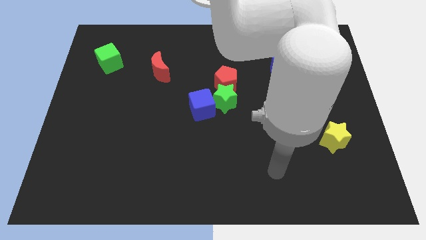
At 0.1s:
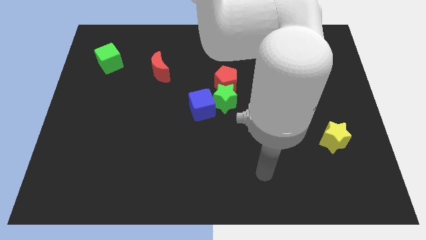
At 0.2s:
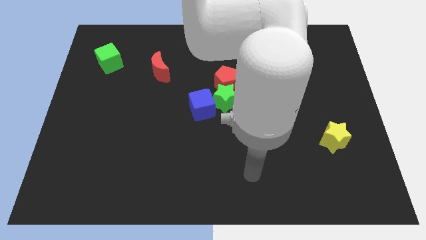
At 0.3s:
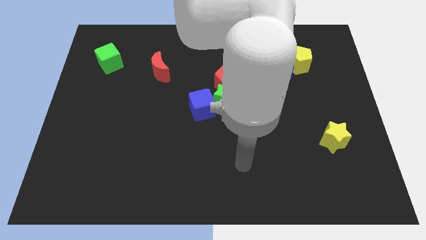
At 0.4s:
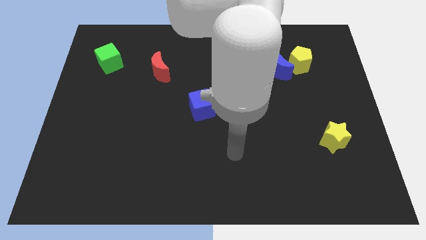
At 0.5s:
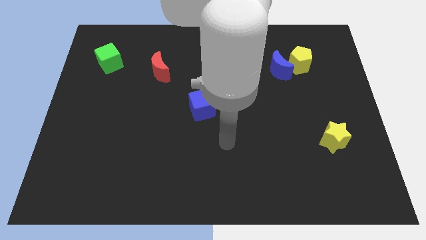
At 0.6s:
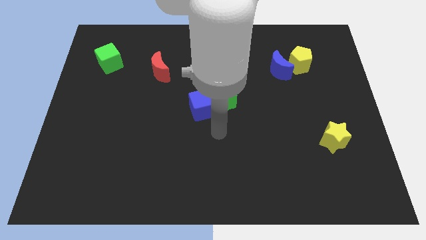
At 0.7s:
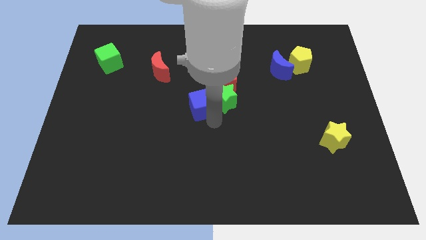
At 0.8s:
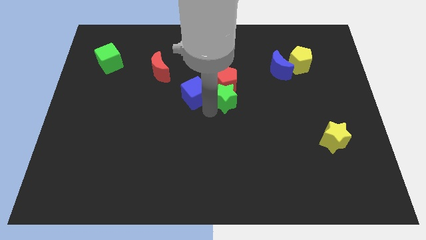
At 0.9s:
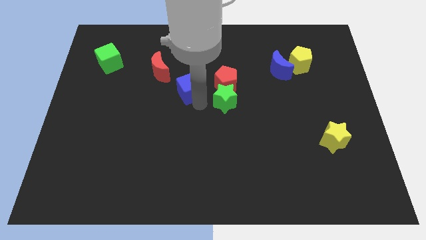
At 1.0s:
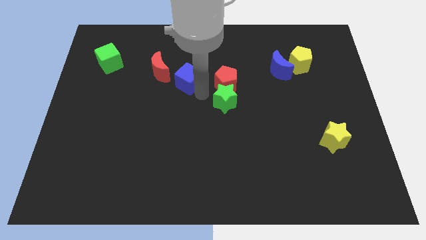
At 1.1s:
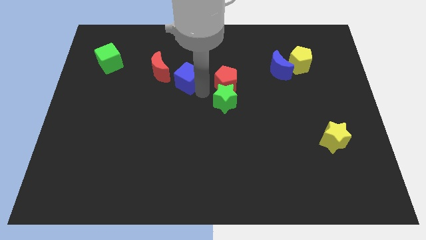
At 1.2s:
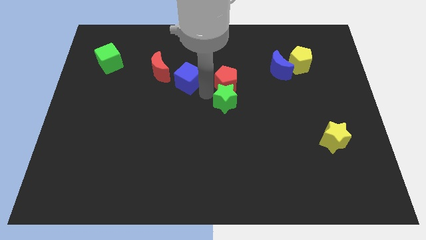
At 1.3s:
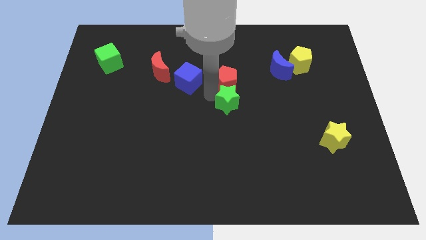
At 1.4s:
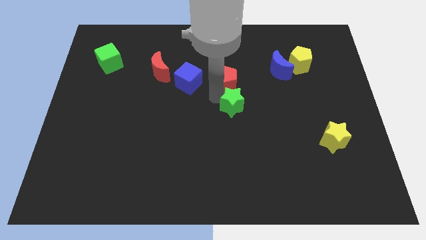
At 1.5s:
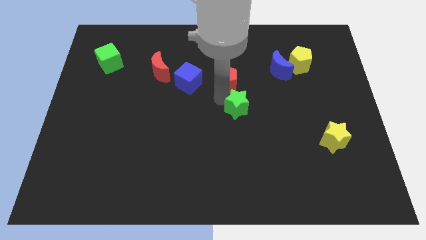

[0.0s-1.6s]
move the green star away from the red pentagon and blue cube

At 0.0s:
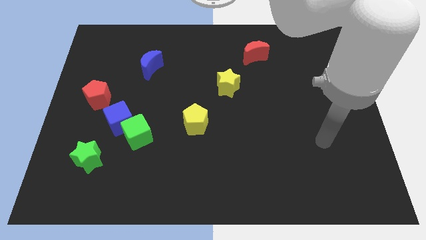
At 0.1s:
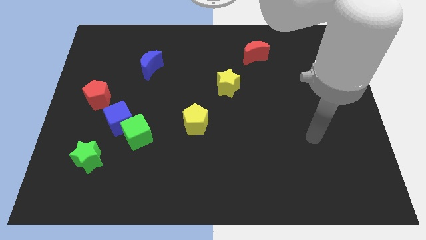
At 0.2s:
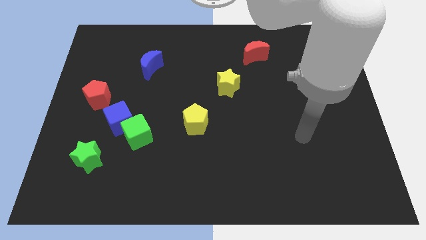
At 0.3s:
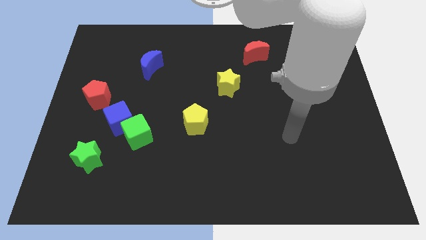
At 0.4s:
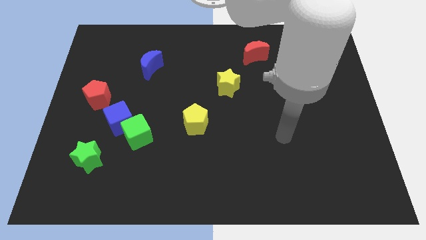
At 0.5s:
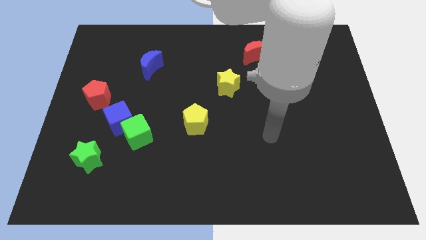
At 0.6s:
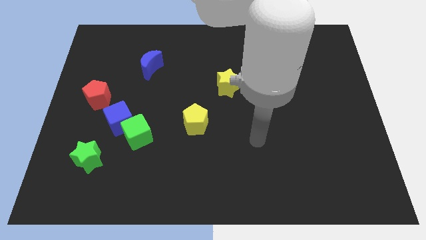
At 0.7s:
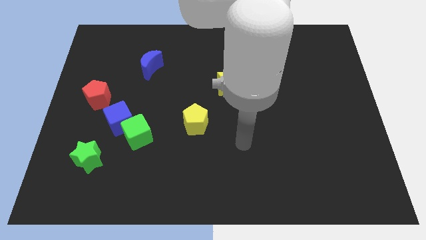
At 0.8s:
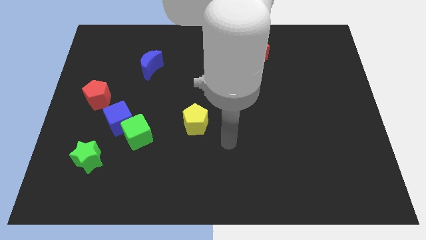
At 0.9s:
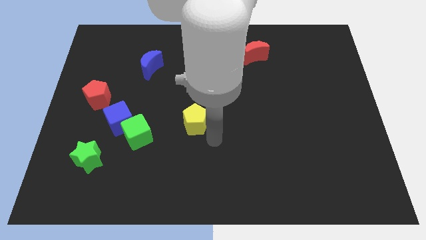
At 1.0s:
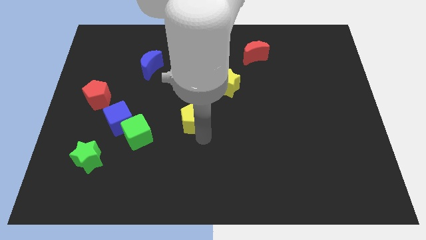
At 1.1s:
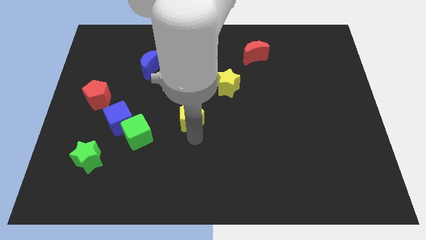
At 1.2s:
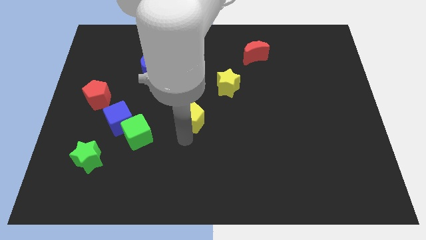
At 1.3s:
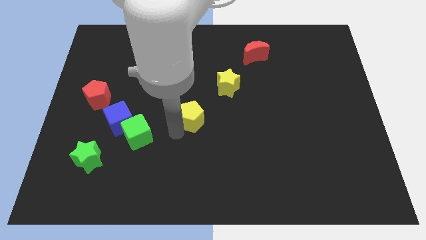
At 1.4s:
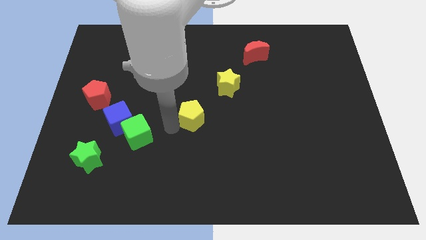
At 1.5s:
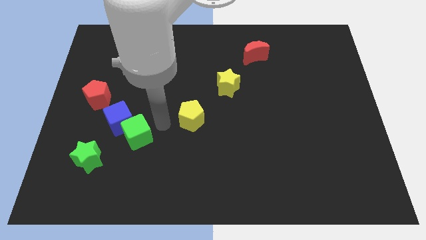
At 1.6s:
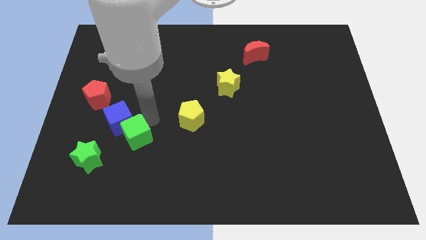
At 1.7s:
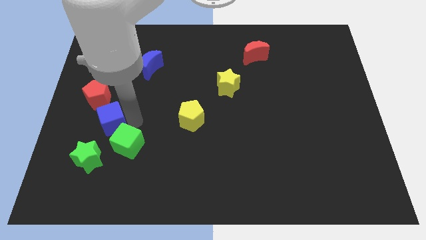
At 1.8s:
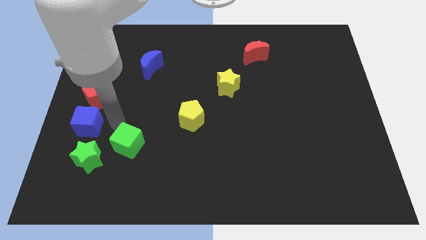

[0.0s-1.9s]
separate the green cube from the blue cube

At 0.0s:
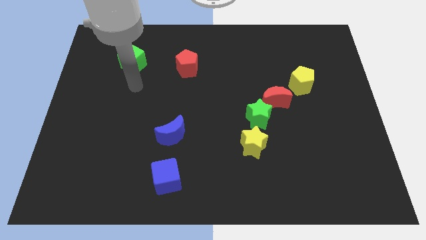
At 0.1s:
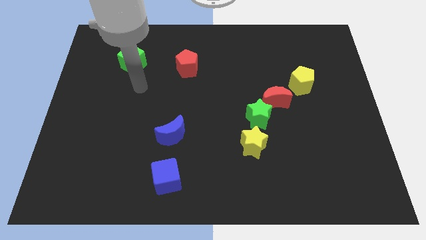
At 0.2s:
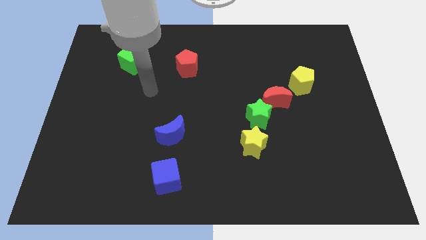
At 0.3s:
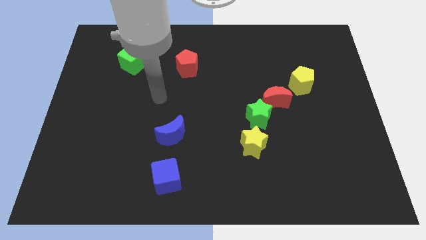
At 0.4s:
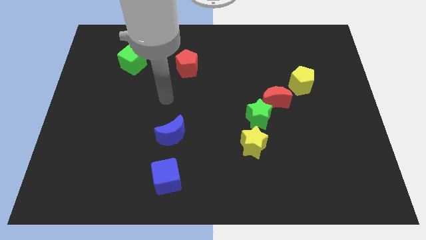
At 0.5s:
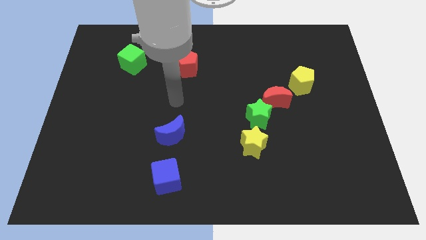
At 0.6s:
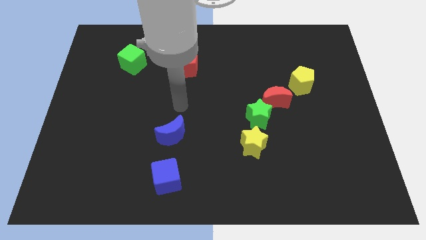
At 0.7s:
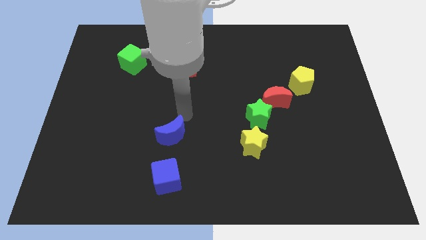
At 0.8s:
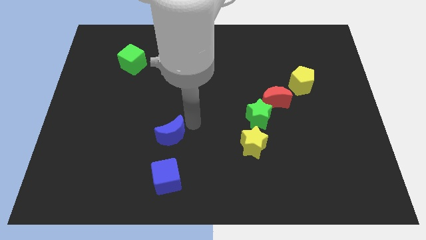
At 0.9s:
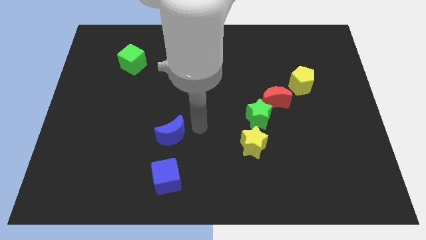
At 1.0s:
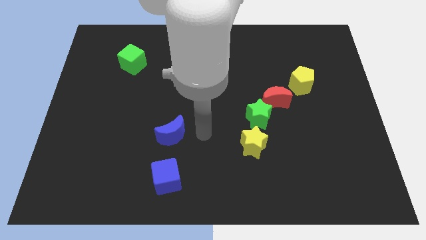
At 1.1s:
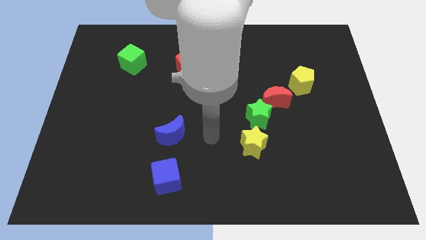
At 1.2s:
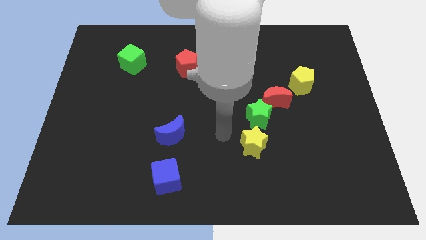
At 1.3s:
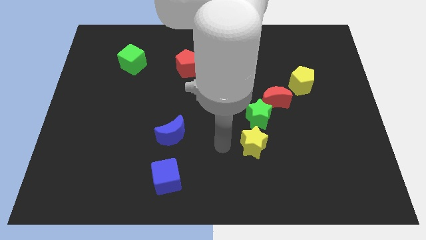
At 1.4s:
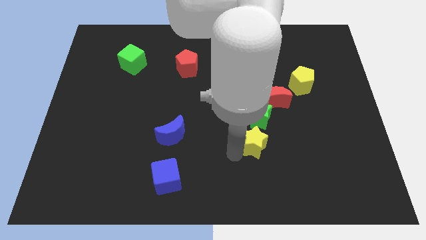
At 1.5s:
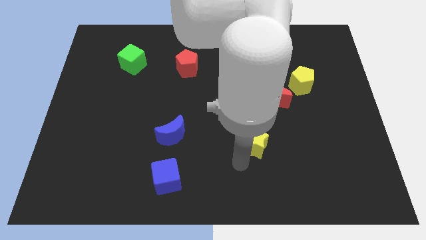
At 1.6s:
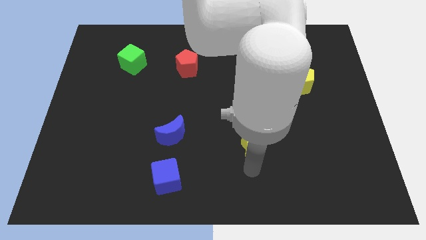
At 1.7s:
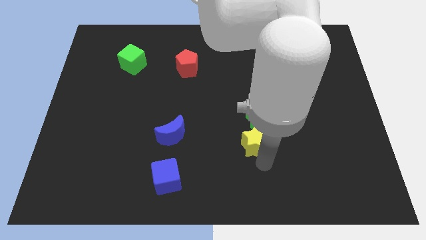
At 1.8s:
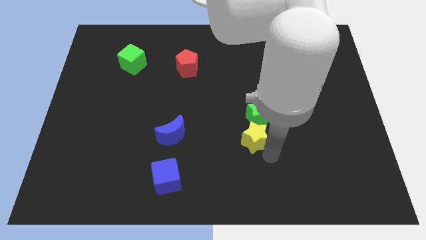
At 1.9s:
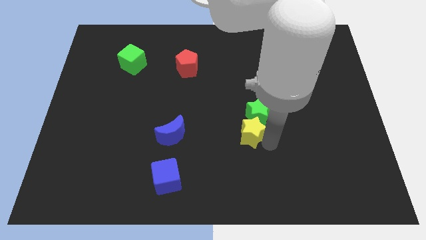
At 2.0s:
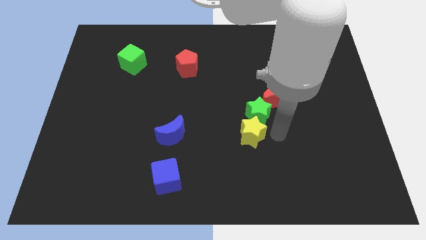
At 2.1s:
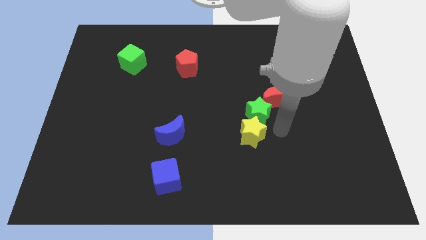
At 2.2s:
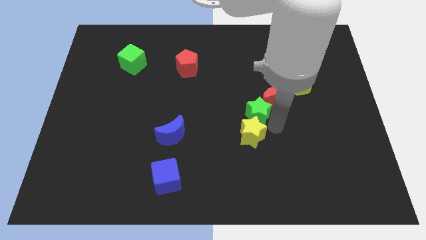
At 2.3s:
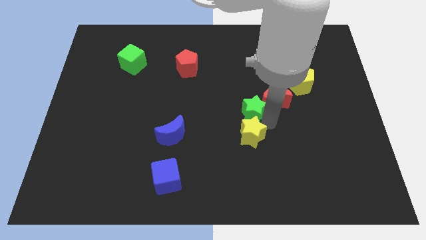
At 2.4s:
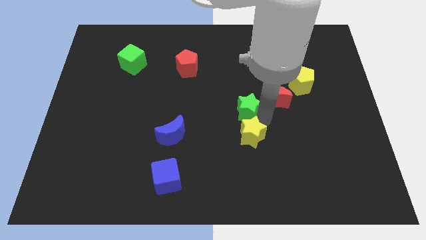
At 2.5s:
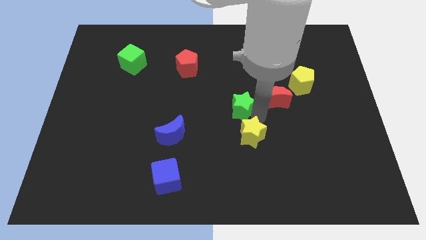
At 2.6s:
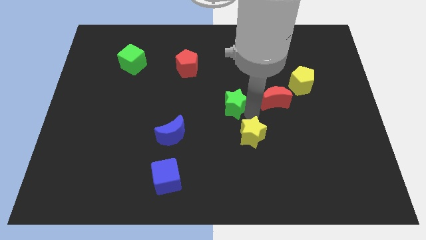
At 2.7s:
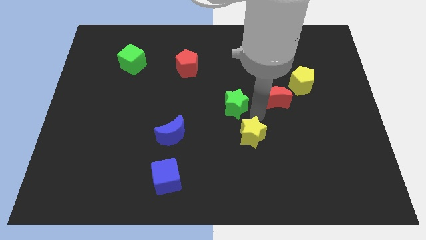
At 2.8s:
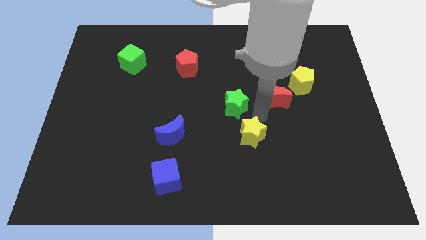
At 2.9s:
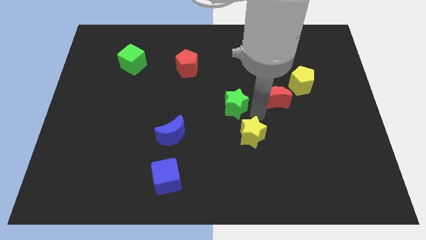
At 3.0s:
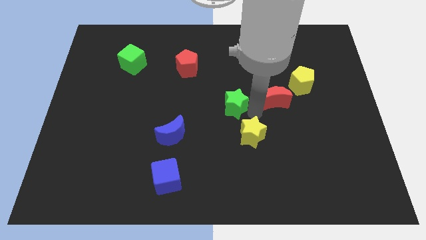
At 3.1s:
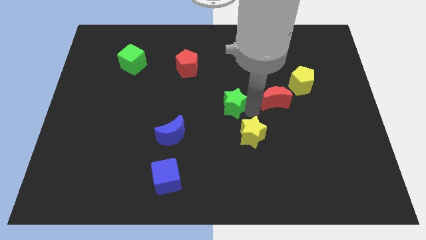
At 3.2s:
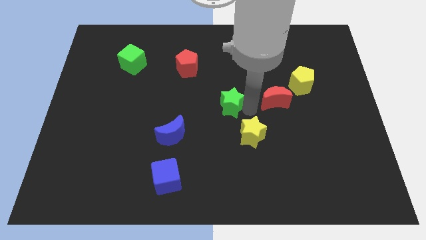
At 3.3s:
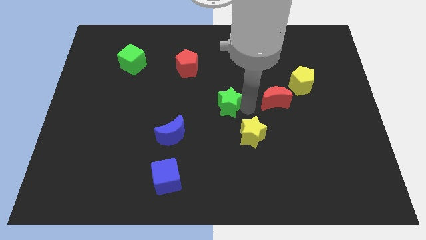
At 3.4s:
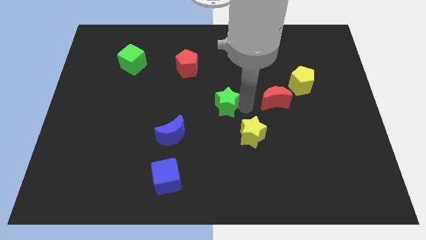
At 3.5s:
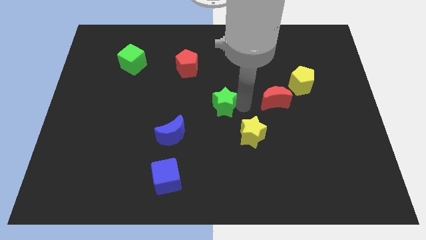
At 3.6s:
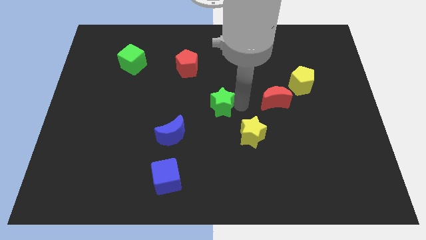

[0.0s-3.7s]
separate the green star from the red moon and yellow star

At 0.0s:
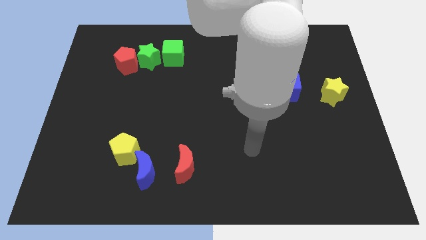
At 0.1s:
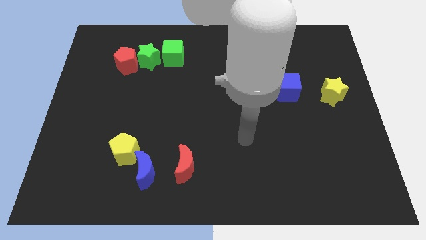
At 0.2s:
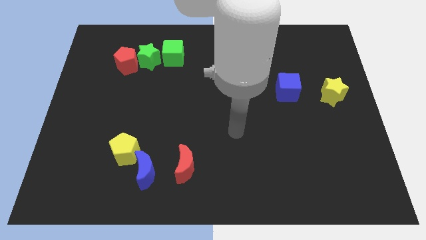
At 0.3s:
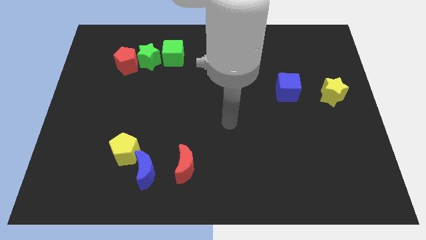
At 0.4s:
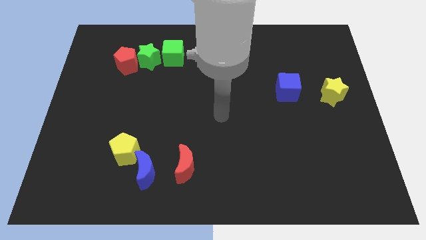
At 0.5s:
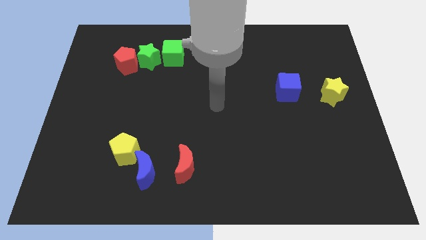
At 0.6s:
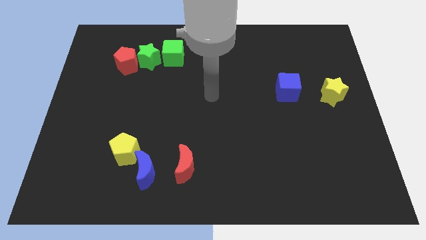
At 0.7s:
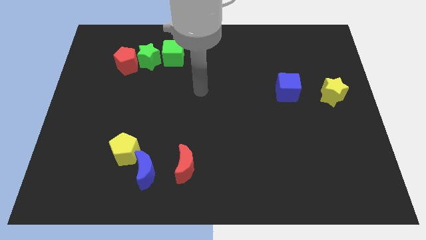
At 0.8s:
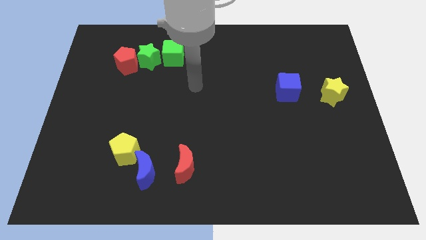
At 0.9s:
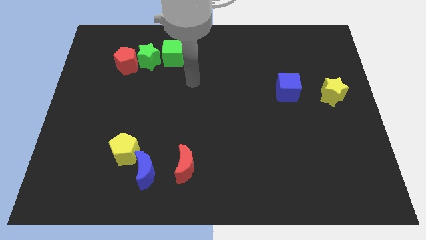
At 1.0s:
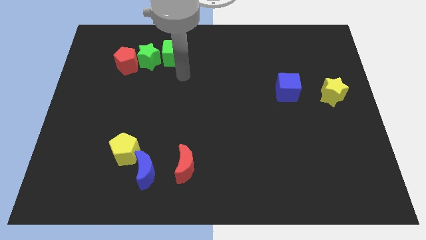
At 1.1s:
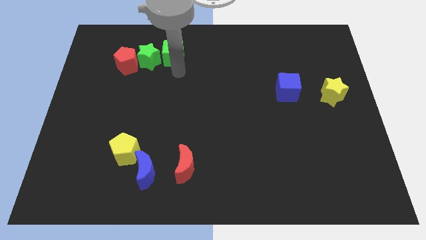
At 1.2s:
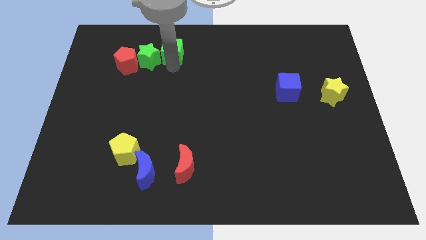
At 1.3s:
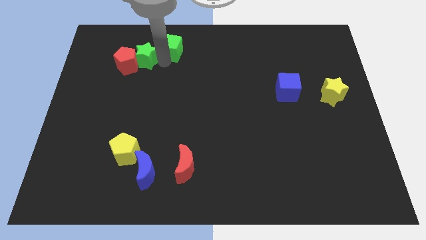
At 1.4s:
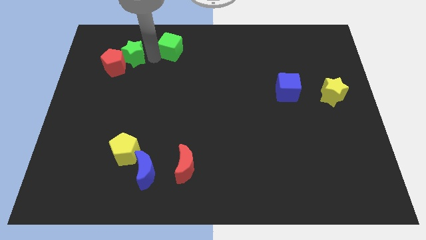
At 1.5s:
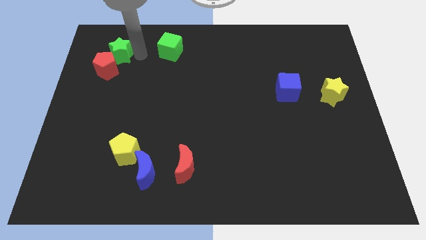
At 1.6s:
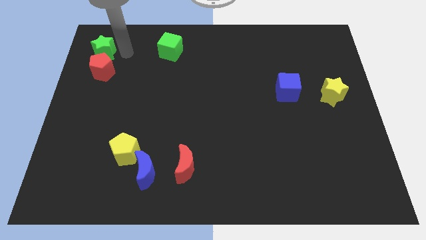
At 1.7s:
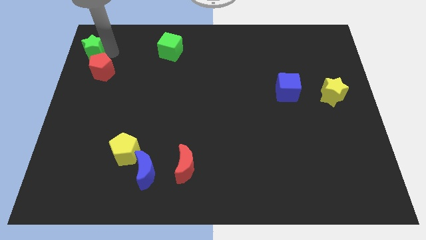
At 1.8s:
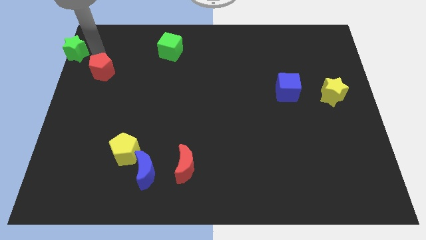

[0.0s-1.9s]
separate the red pentagon from the green star

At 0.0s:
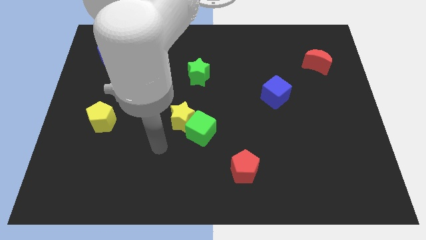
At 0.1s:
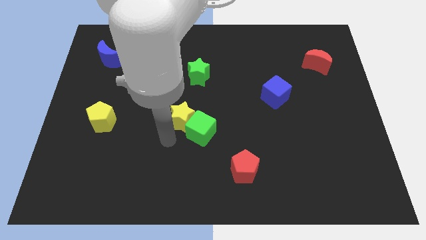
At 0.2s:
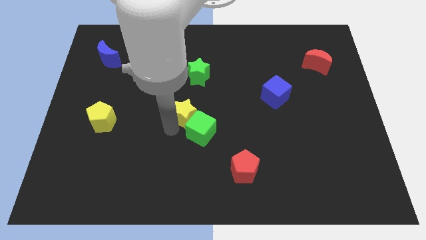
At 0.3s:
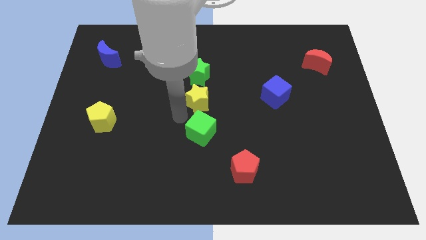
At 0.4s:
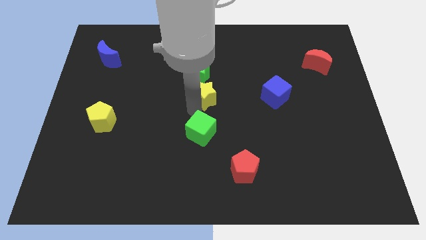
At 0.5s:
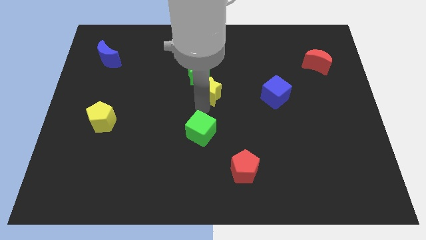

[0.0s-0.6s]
move the green cube away from the yellow star
